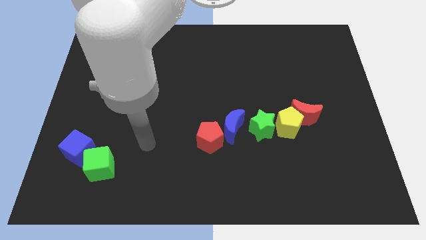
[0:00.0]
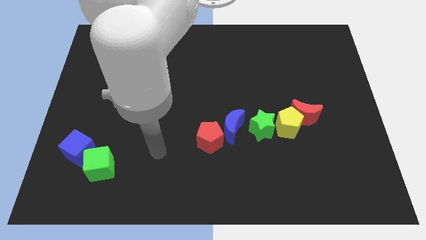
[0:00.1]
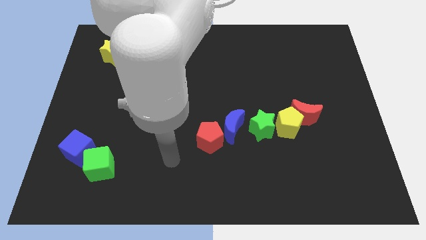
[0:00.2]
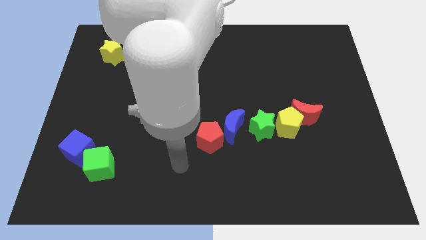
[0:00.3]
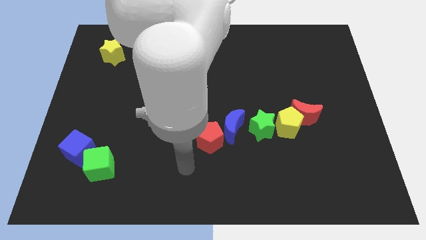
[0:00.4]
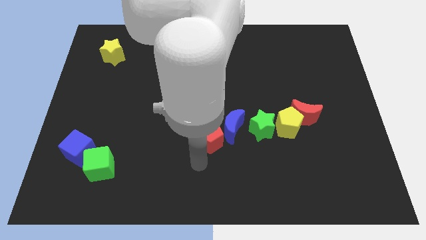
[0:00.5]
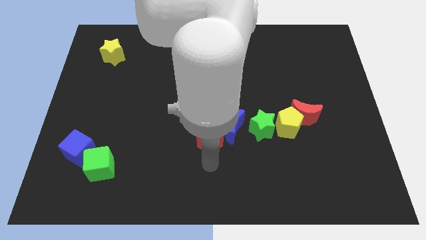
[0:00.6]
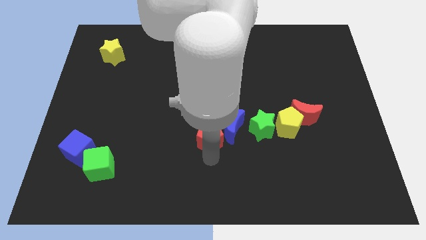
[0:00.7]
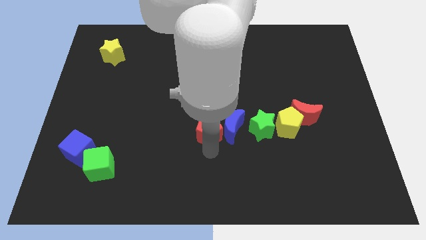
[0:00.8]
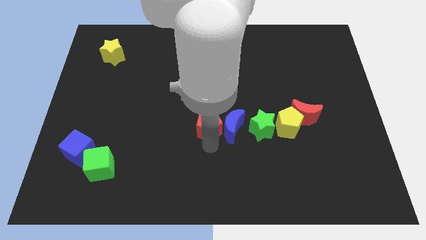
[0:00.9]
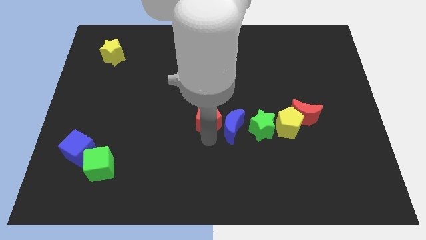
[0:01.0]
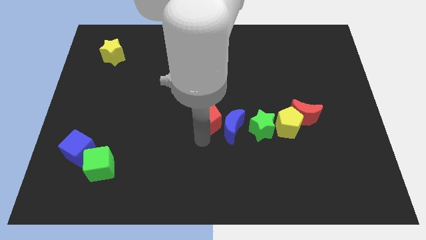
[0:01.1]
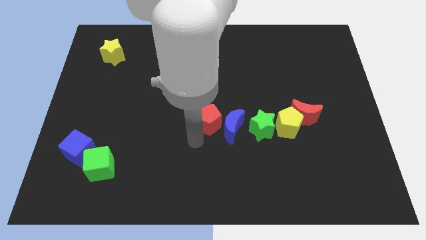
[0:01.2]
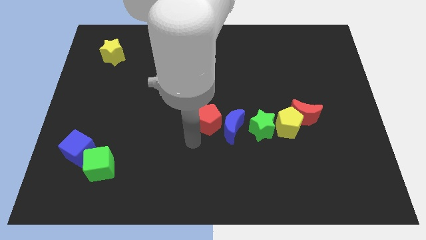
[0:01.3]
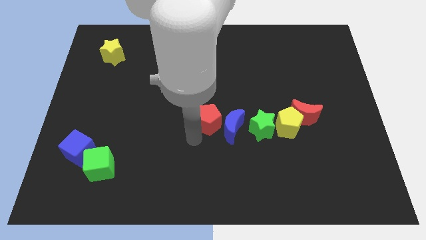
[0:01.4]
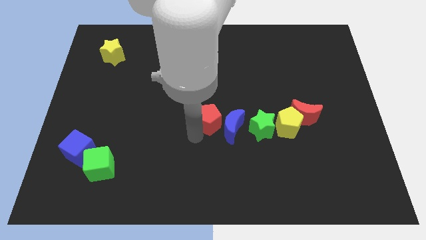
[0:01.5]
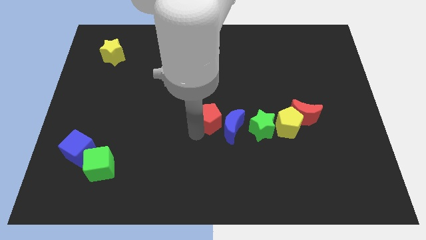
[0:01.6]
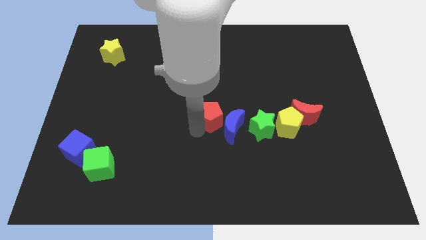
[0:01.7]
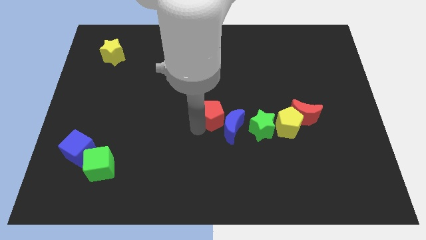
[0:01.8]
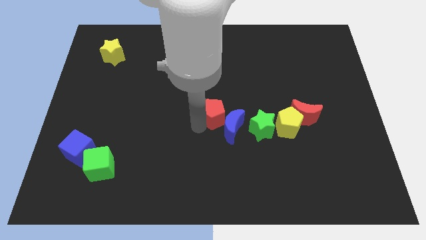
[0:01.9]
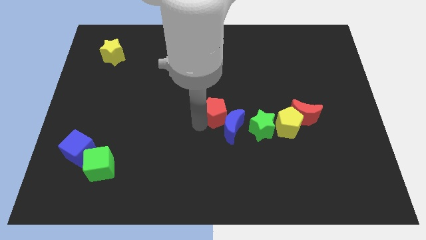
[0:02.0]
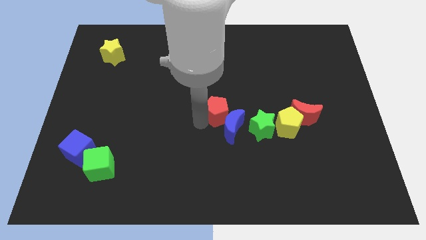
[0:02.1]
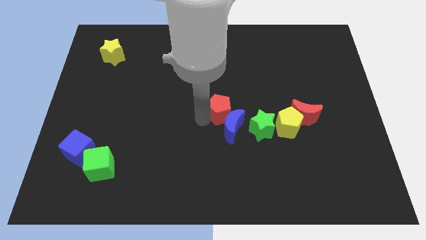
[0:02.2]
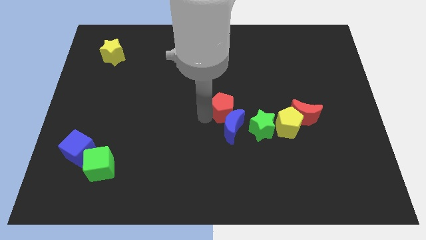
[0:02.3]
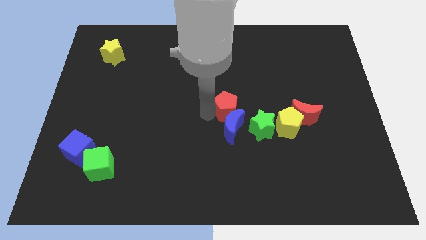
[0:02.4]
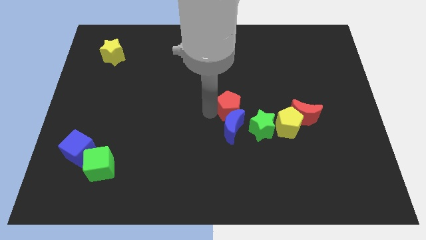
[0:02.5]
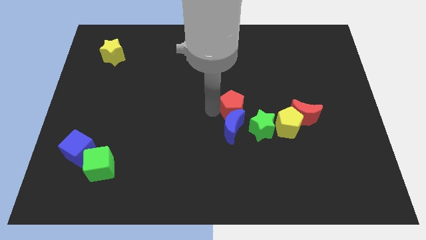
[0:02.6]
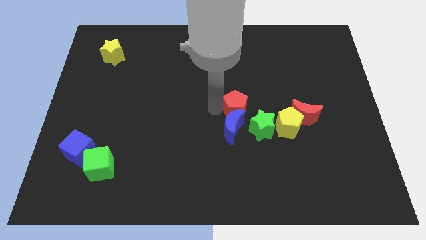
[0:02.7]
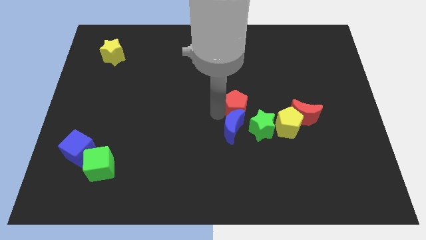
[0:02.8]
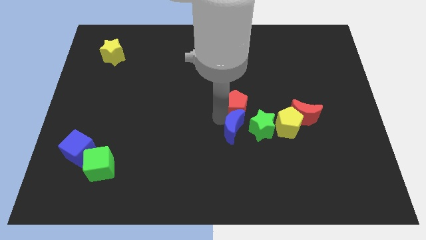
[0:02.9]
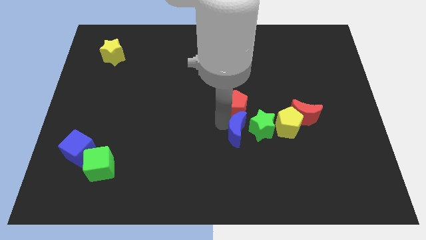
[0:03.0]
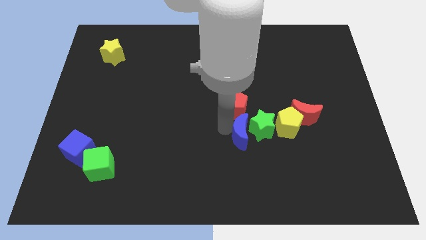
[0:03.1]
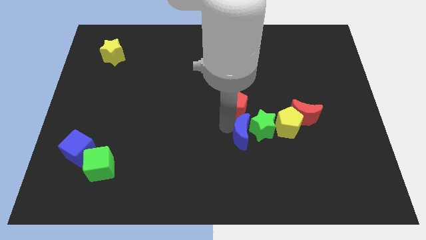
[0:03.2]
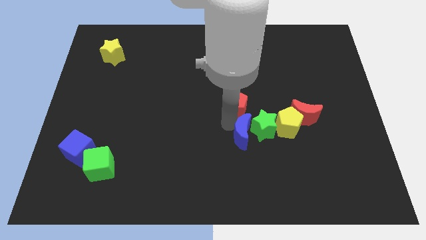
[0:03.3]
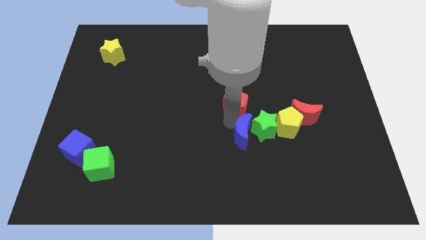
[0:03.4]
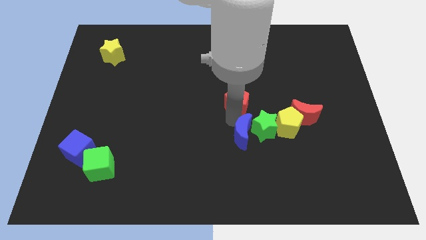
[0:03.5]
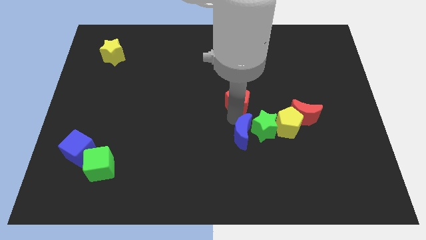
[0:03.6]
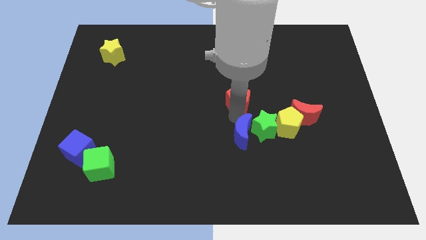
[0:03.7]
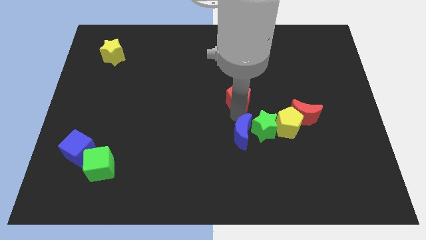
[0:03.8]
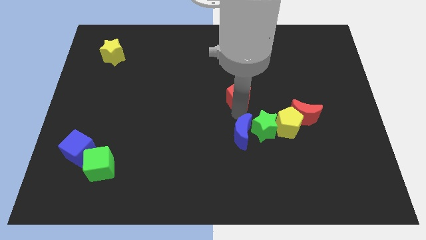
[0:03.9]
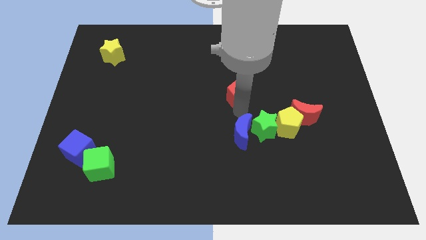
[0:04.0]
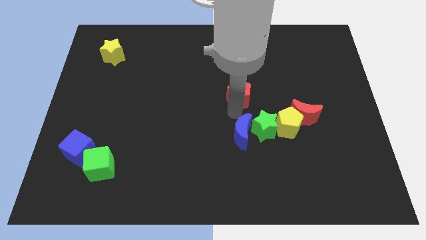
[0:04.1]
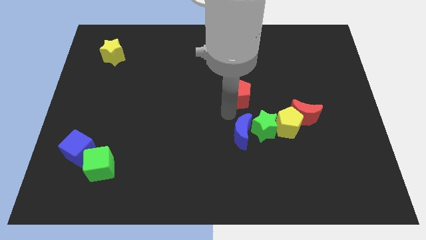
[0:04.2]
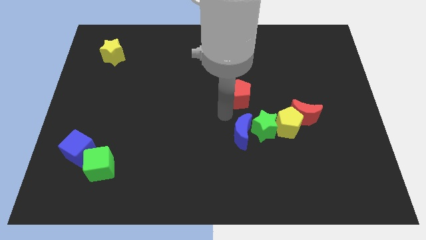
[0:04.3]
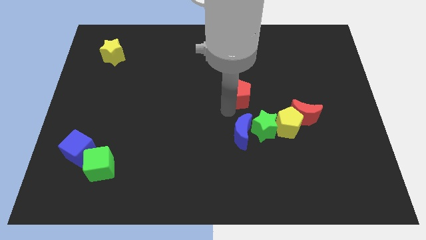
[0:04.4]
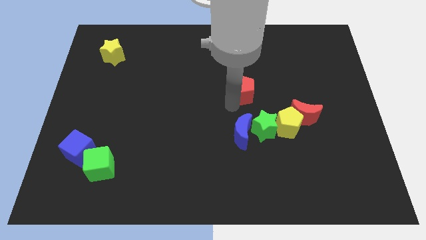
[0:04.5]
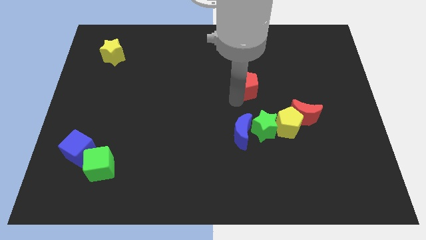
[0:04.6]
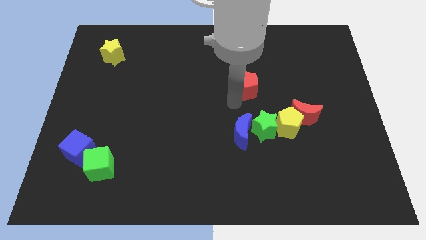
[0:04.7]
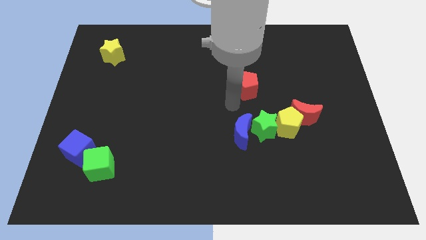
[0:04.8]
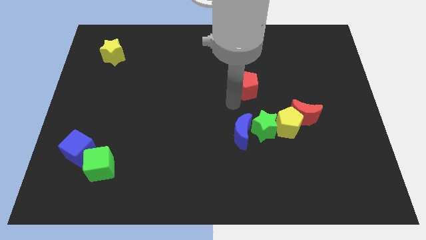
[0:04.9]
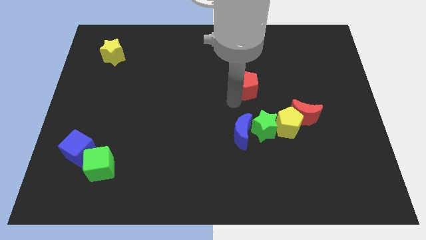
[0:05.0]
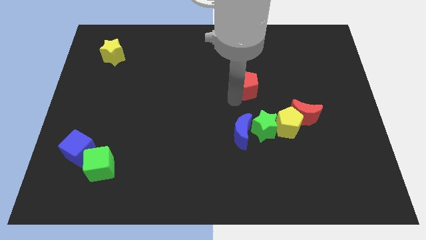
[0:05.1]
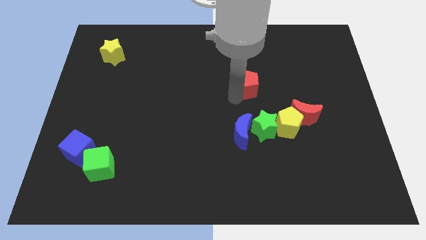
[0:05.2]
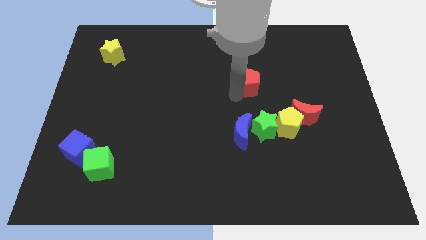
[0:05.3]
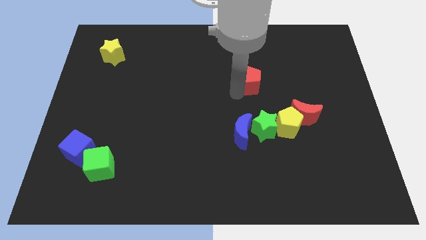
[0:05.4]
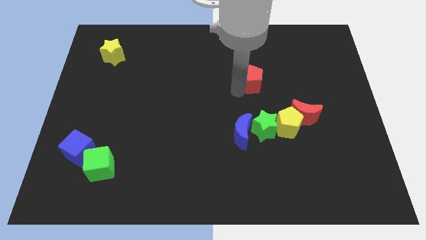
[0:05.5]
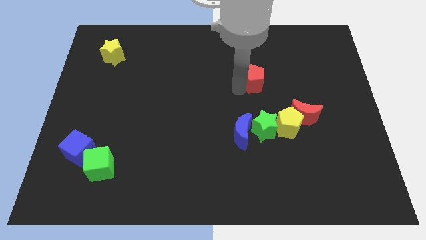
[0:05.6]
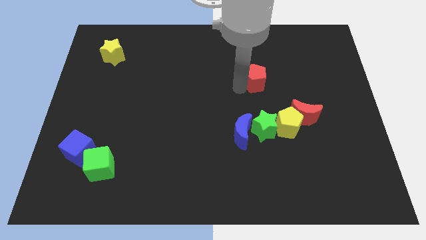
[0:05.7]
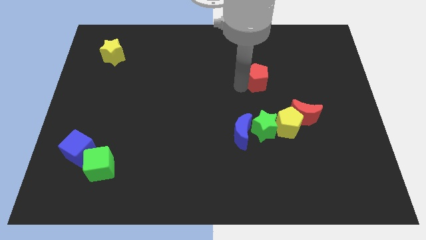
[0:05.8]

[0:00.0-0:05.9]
slide the red pentagon diagonally up and right

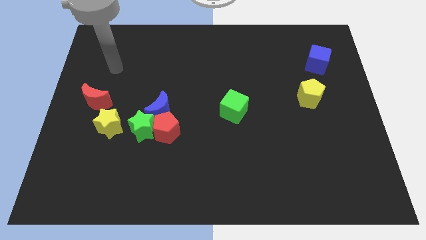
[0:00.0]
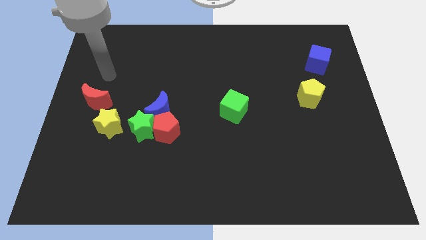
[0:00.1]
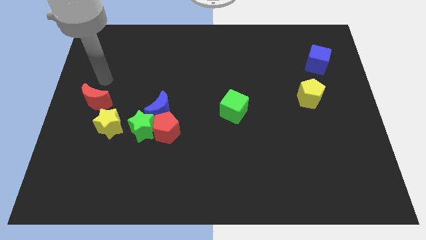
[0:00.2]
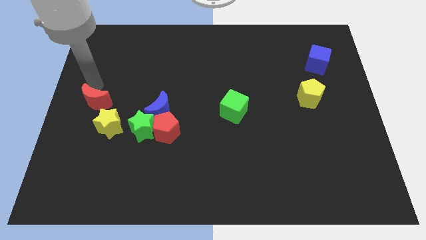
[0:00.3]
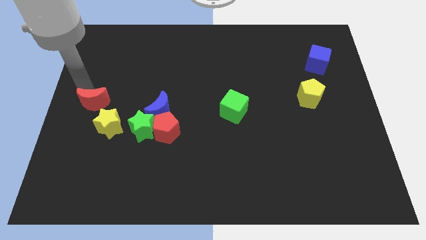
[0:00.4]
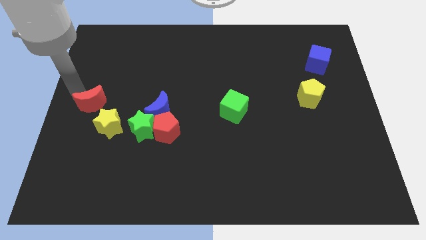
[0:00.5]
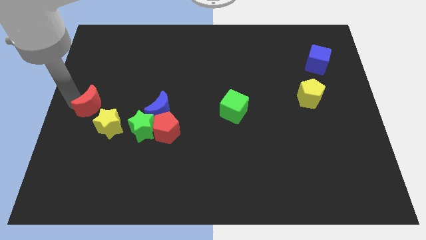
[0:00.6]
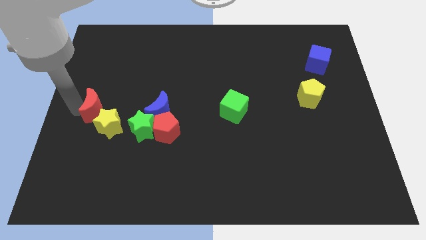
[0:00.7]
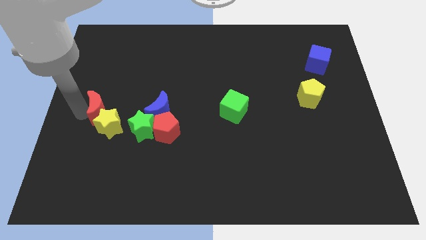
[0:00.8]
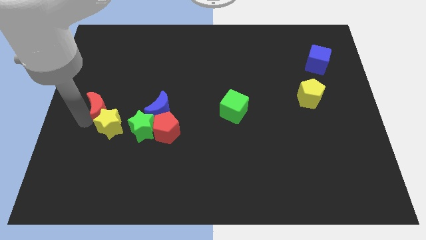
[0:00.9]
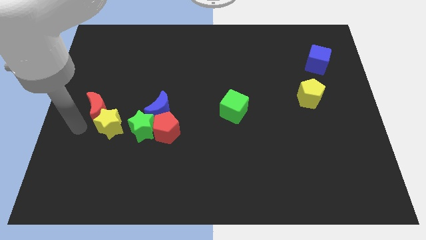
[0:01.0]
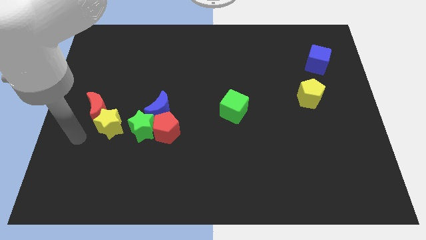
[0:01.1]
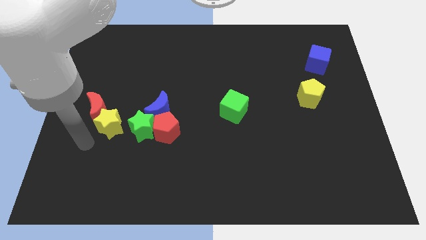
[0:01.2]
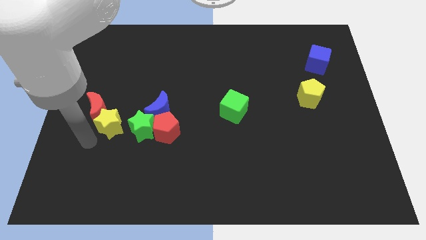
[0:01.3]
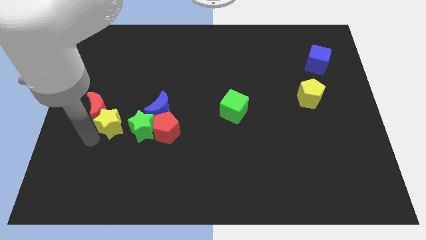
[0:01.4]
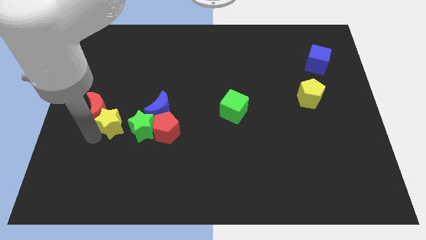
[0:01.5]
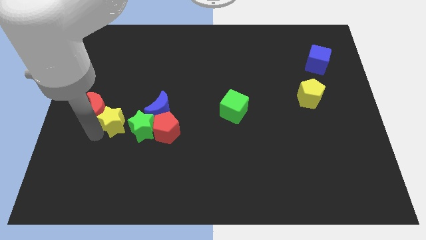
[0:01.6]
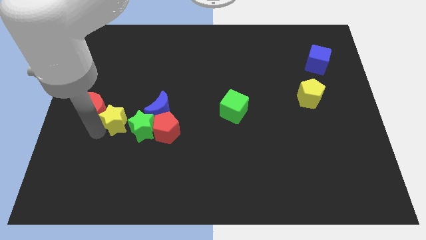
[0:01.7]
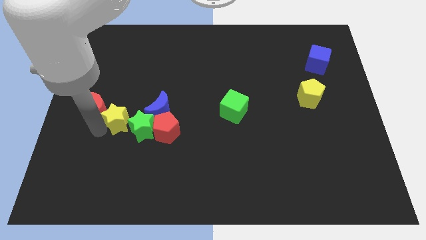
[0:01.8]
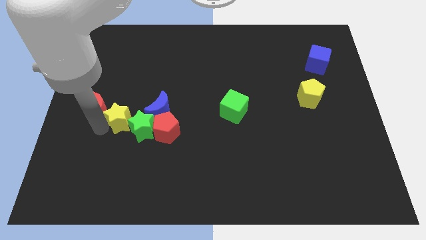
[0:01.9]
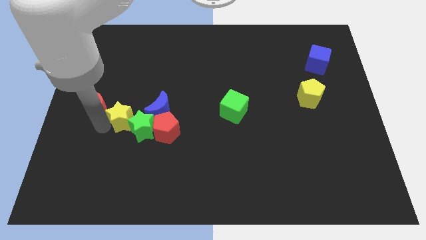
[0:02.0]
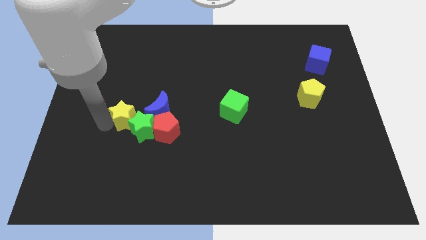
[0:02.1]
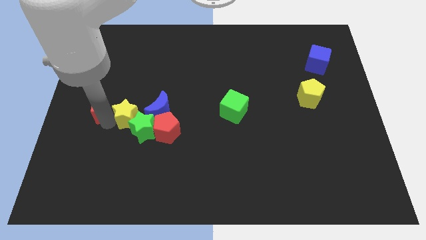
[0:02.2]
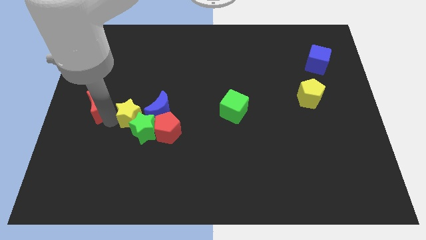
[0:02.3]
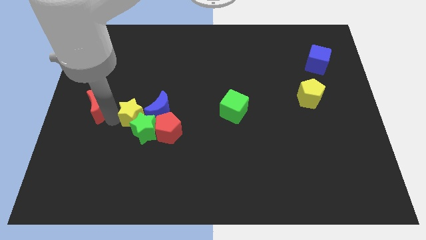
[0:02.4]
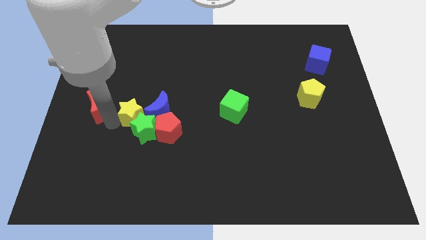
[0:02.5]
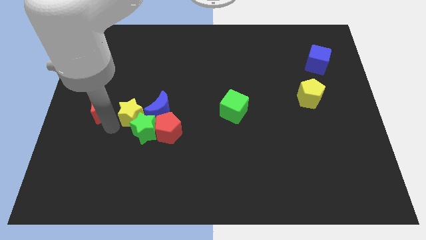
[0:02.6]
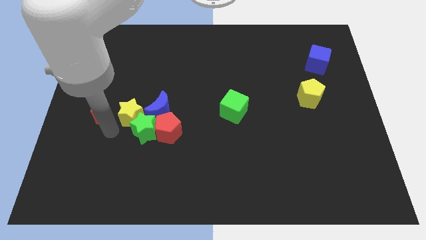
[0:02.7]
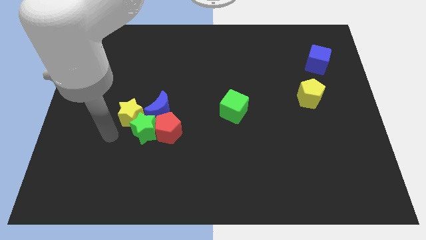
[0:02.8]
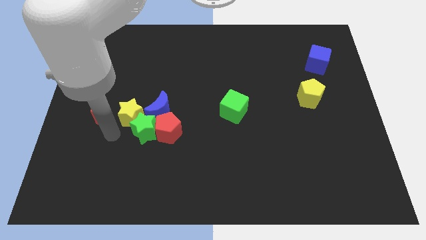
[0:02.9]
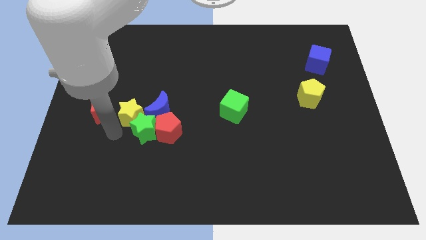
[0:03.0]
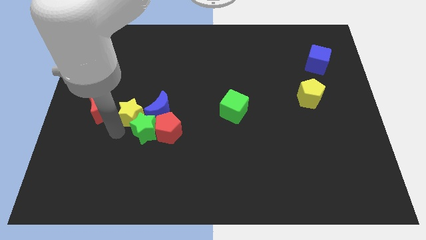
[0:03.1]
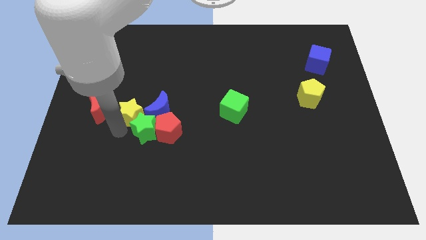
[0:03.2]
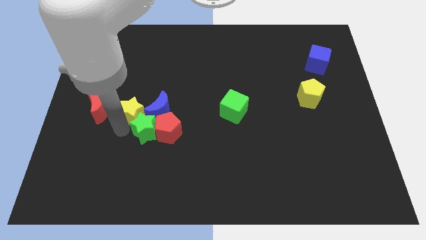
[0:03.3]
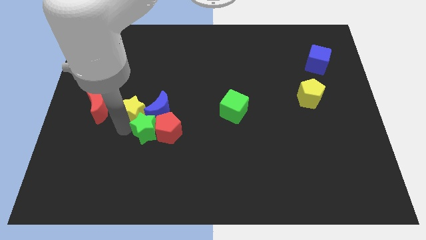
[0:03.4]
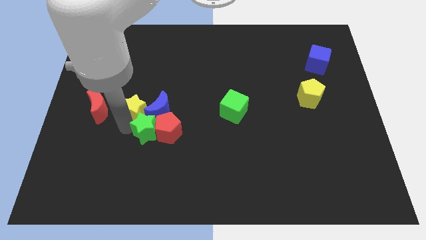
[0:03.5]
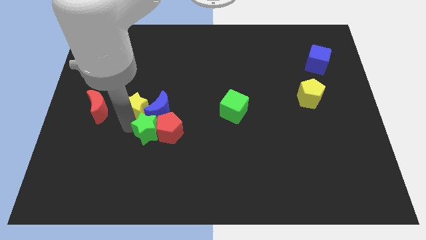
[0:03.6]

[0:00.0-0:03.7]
move the yellow star slightly upwards and then right
